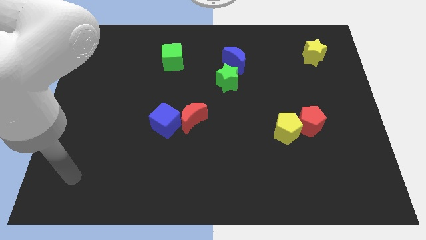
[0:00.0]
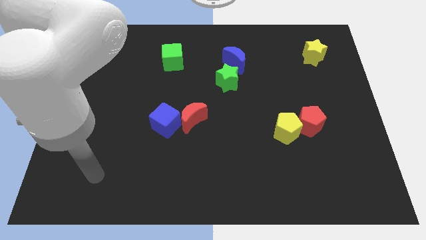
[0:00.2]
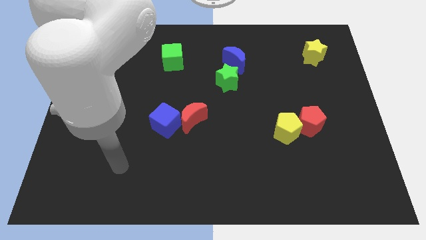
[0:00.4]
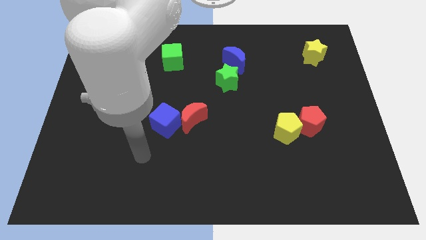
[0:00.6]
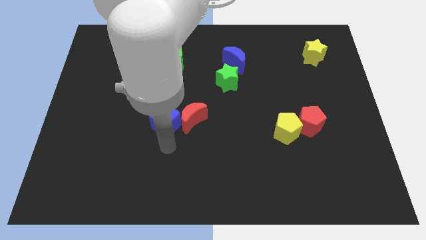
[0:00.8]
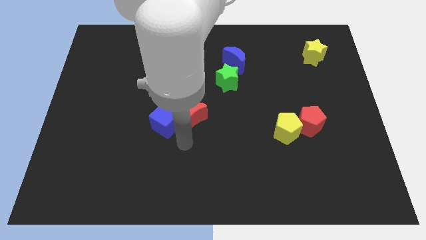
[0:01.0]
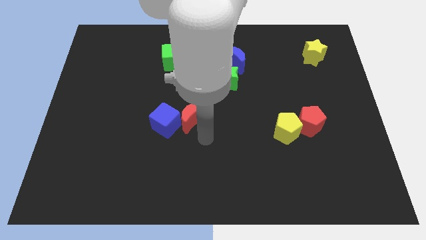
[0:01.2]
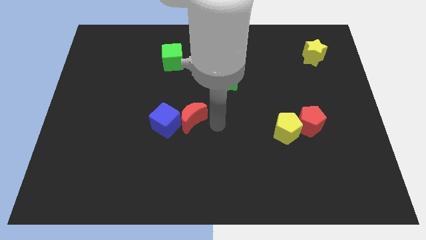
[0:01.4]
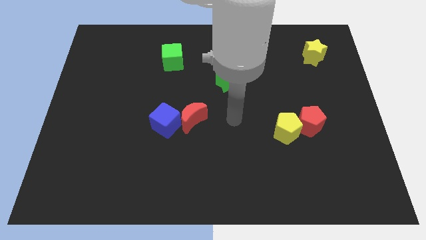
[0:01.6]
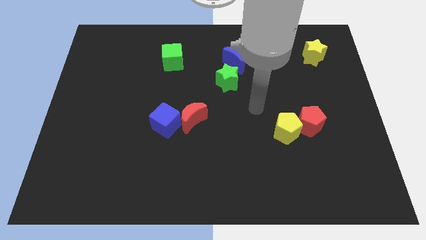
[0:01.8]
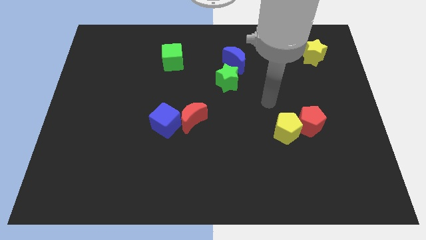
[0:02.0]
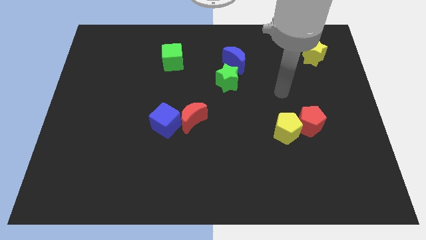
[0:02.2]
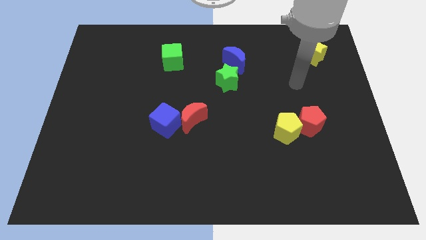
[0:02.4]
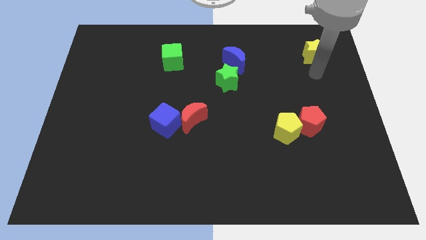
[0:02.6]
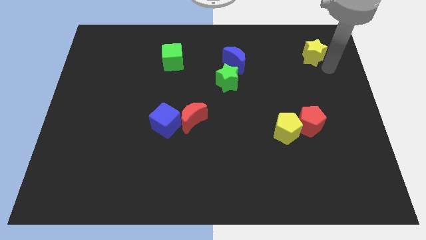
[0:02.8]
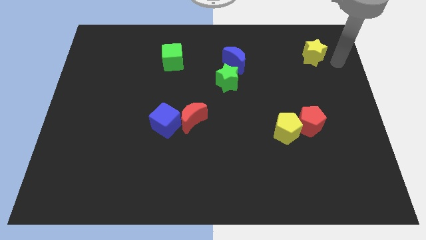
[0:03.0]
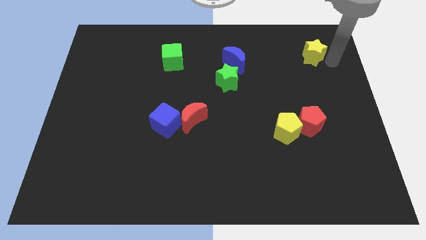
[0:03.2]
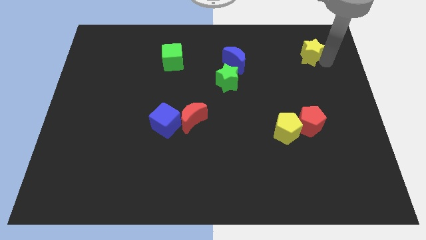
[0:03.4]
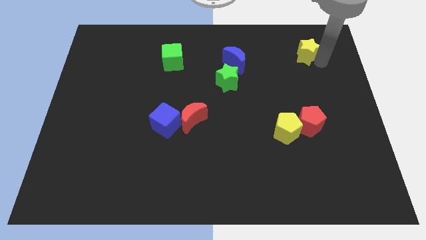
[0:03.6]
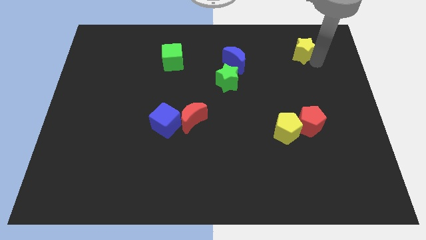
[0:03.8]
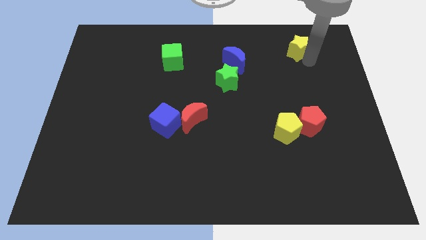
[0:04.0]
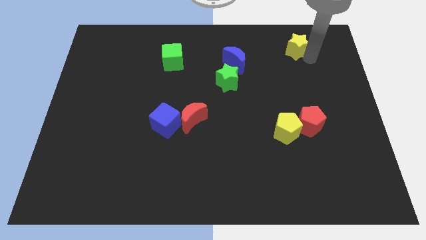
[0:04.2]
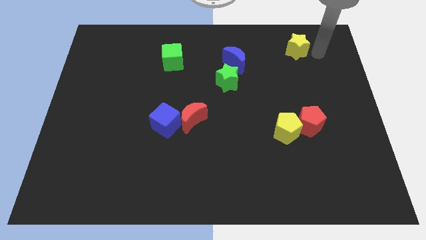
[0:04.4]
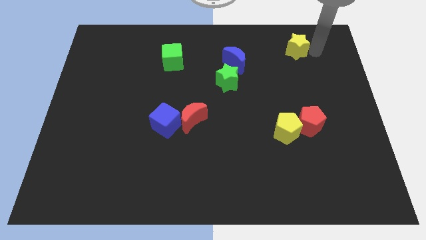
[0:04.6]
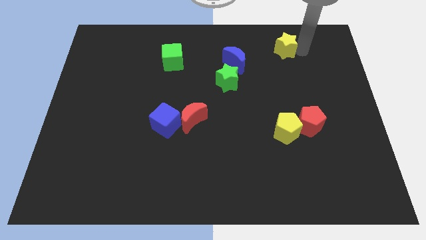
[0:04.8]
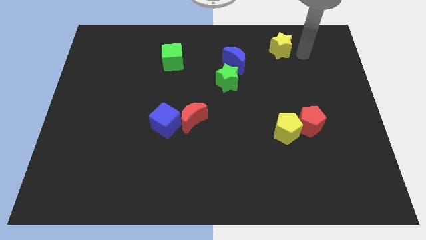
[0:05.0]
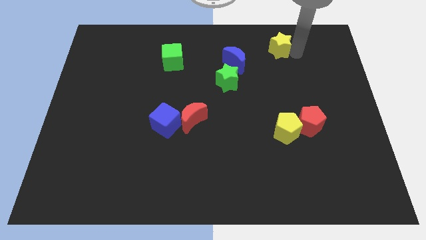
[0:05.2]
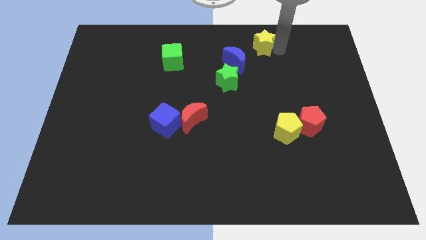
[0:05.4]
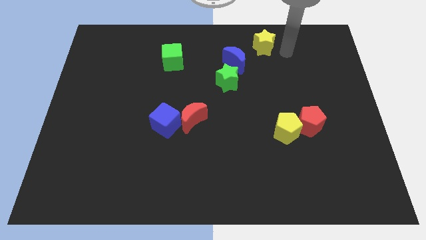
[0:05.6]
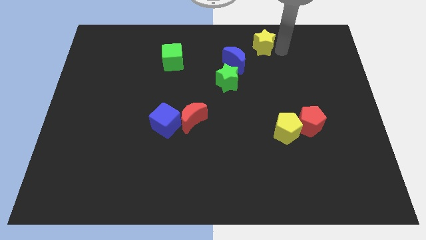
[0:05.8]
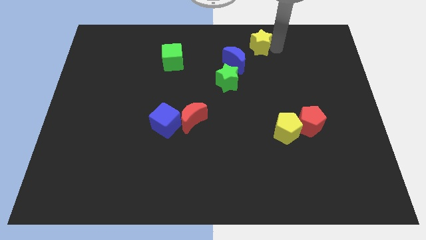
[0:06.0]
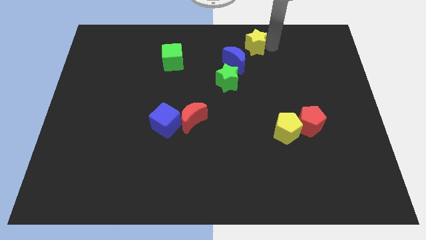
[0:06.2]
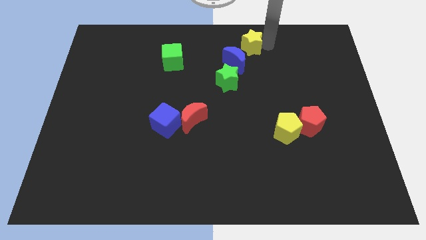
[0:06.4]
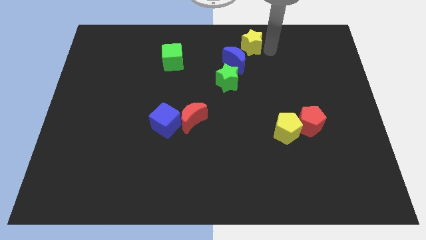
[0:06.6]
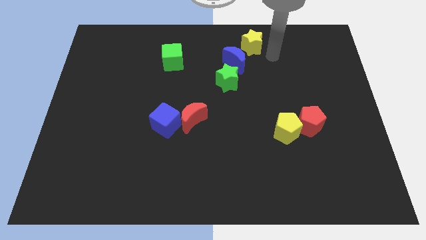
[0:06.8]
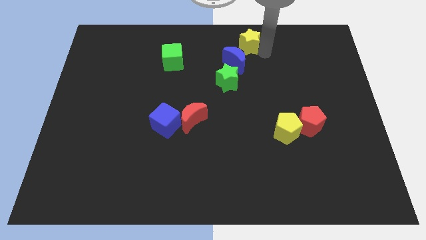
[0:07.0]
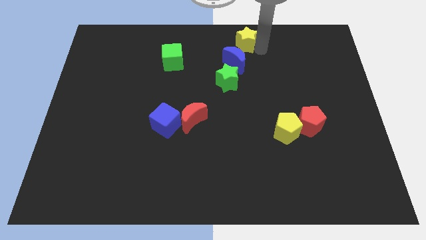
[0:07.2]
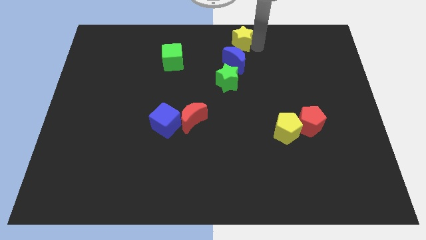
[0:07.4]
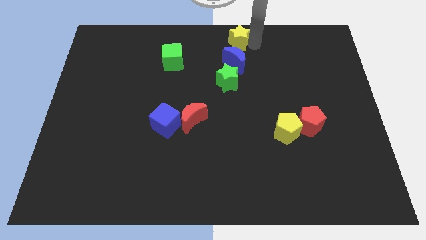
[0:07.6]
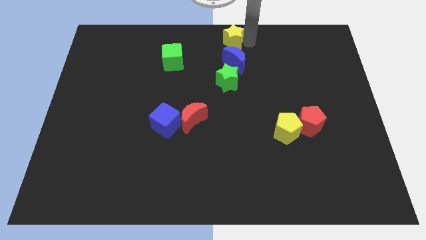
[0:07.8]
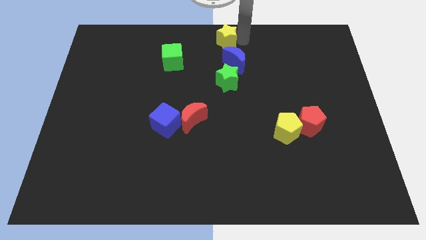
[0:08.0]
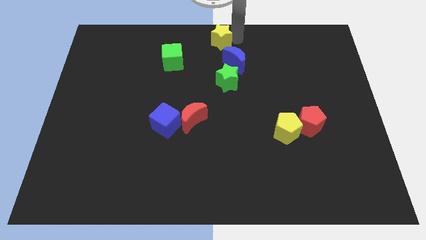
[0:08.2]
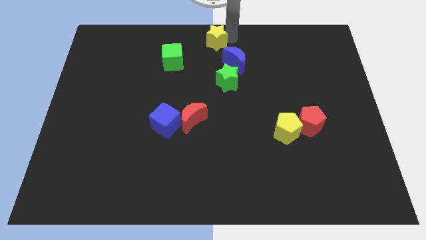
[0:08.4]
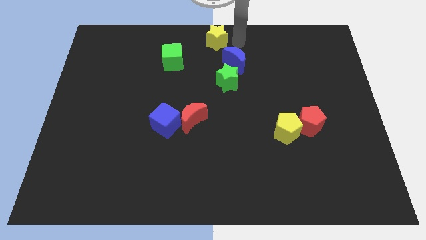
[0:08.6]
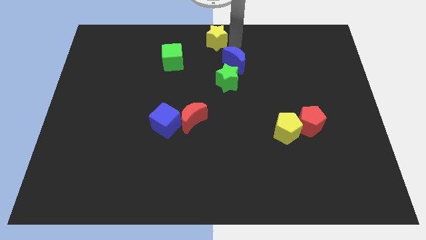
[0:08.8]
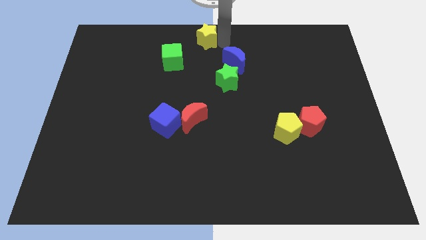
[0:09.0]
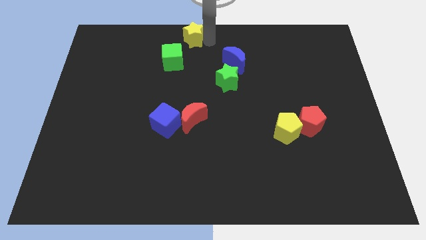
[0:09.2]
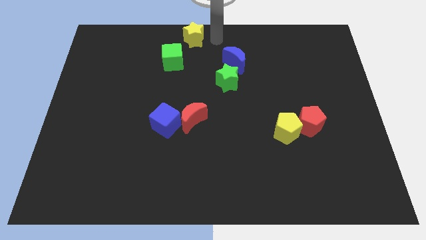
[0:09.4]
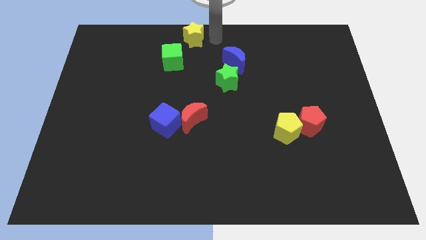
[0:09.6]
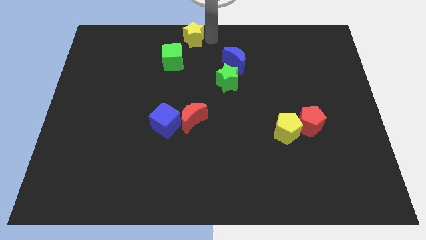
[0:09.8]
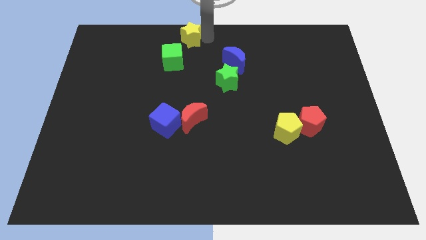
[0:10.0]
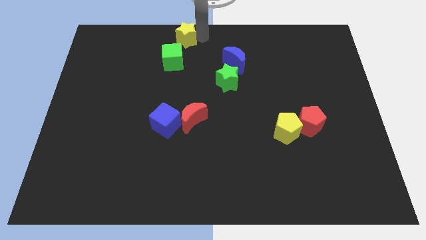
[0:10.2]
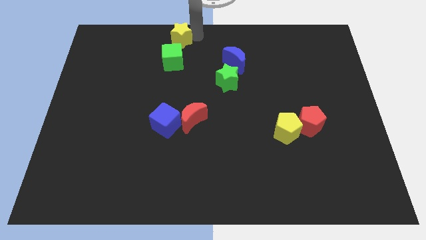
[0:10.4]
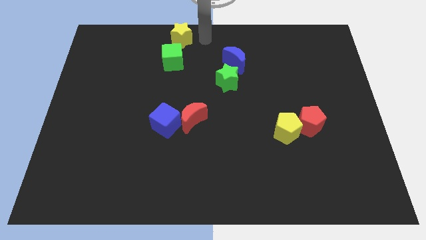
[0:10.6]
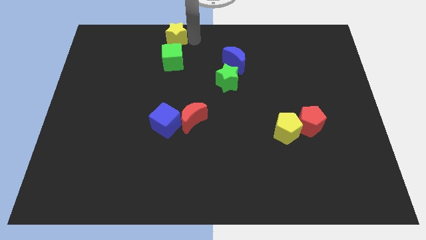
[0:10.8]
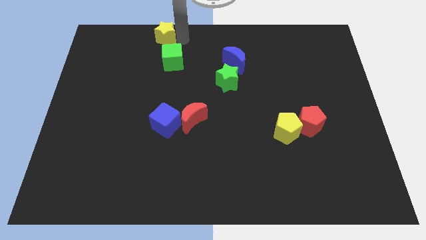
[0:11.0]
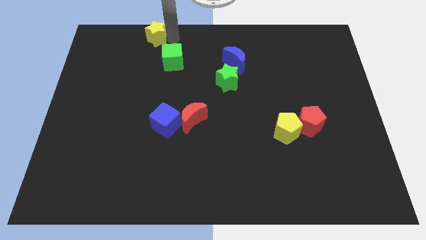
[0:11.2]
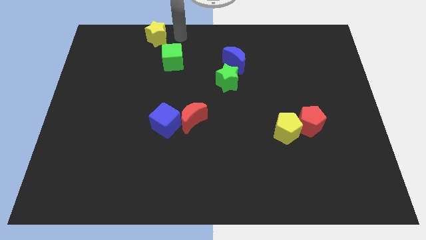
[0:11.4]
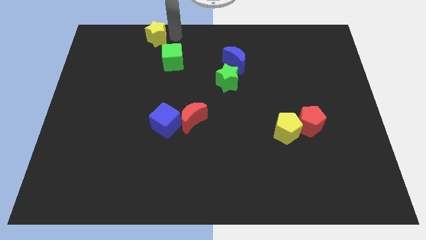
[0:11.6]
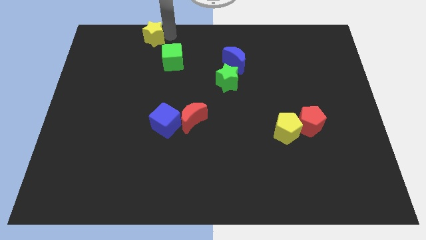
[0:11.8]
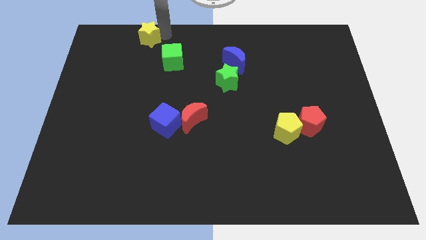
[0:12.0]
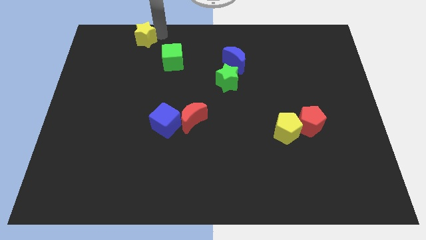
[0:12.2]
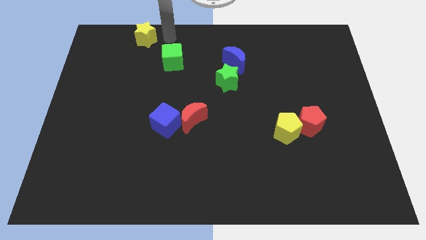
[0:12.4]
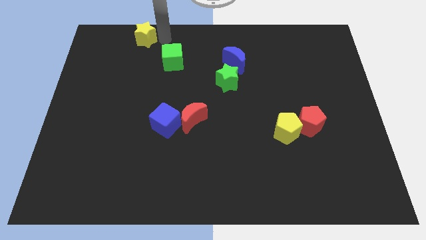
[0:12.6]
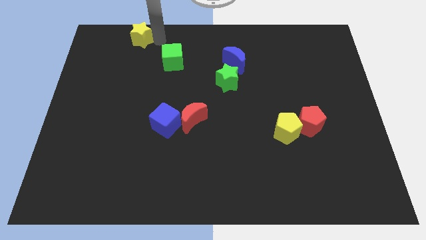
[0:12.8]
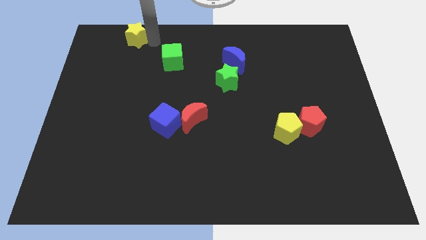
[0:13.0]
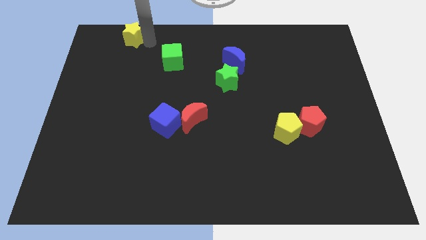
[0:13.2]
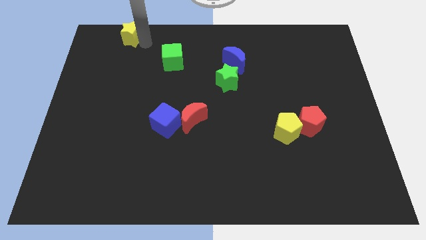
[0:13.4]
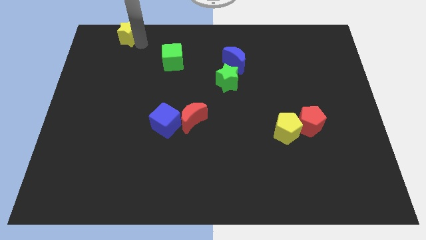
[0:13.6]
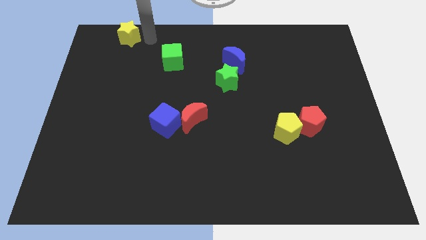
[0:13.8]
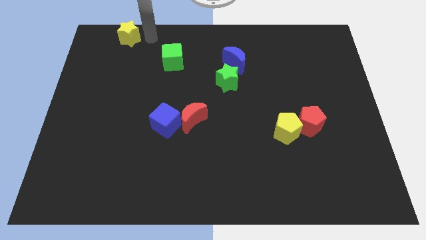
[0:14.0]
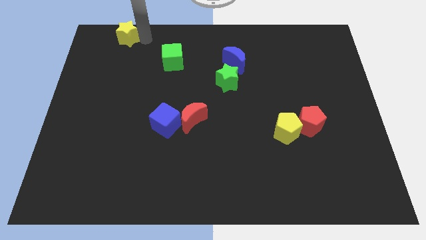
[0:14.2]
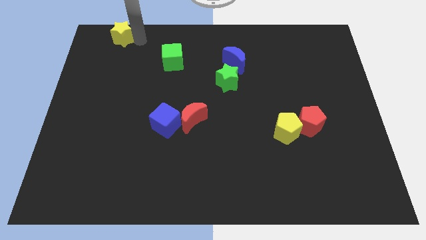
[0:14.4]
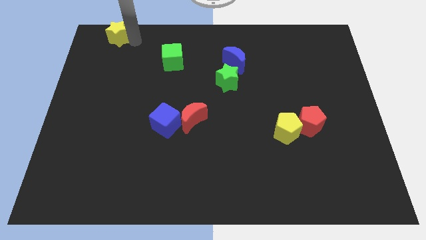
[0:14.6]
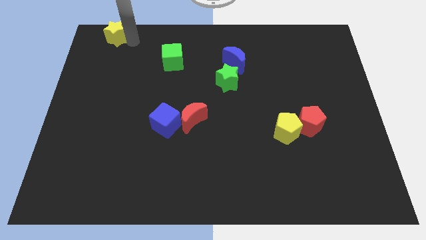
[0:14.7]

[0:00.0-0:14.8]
push the yellow star to the top left
